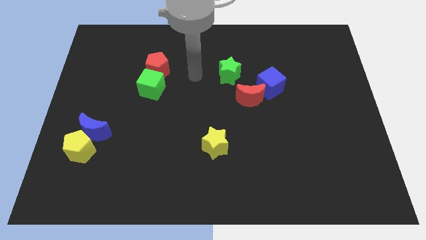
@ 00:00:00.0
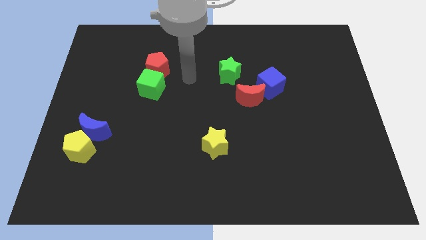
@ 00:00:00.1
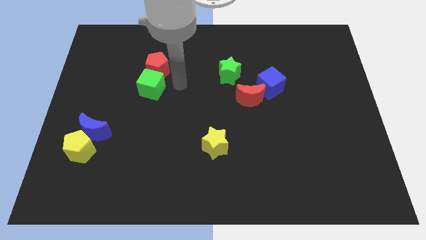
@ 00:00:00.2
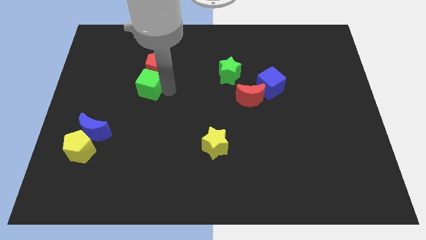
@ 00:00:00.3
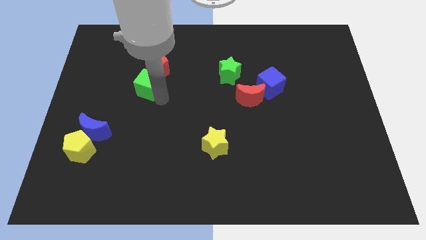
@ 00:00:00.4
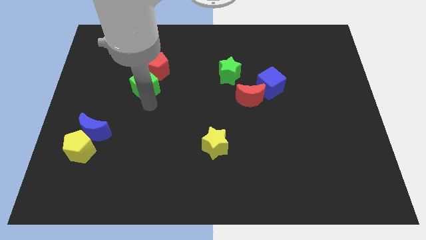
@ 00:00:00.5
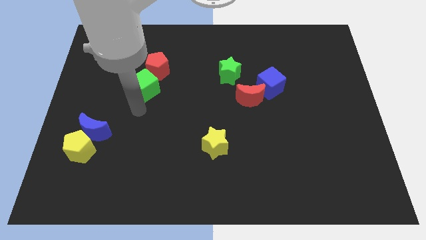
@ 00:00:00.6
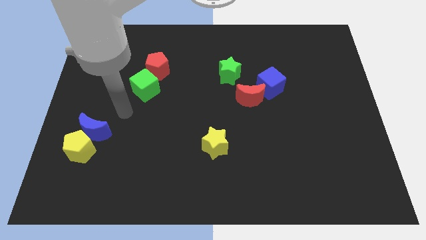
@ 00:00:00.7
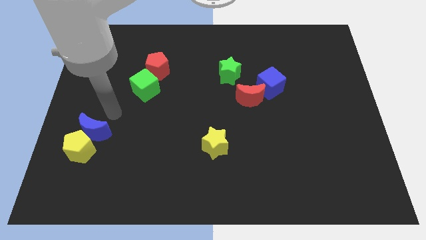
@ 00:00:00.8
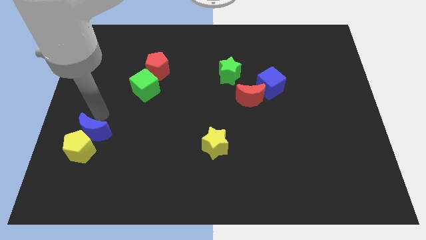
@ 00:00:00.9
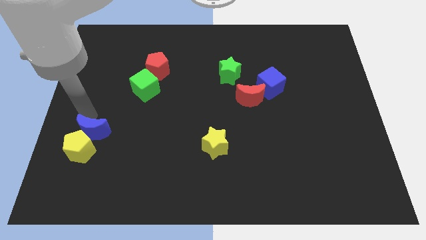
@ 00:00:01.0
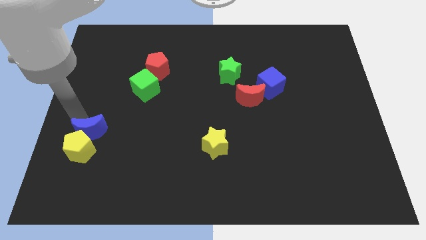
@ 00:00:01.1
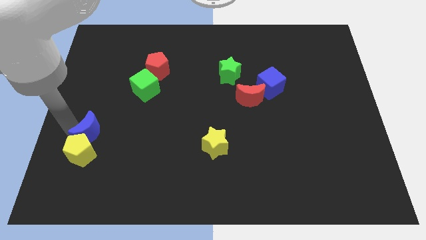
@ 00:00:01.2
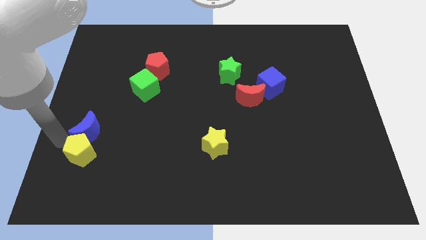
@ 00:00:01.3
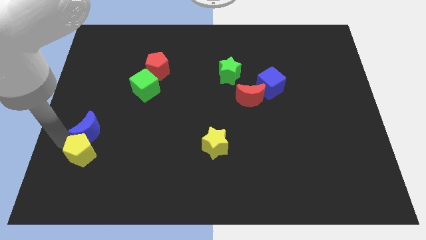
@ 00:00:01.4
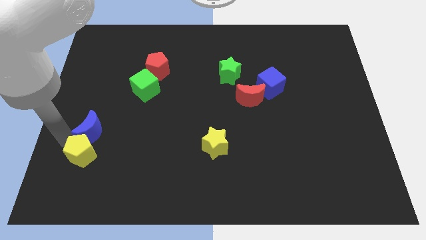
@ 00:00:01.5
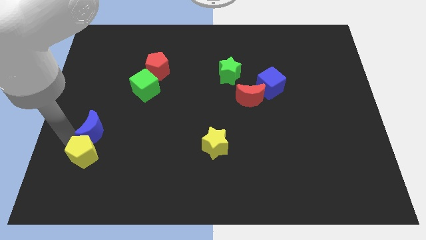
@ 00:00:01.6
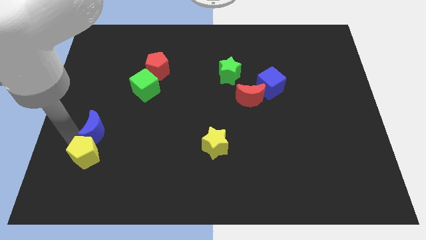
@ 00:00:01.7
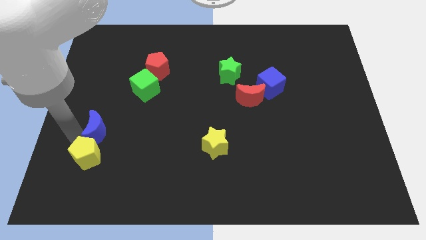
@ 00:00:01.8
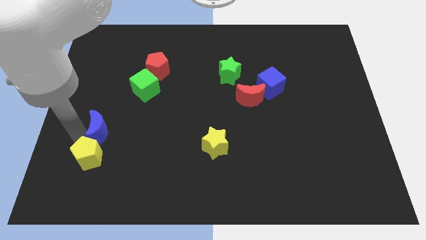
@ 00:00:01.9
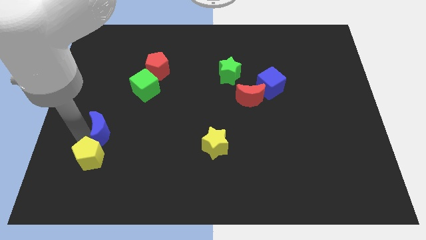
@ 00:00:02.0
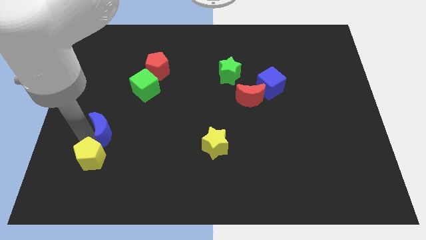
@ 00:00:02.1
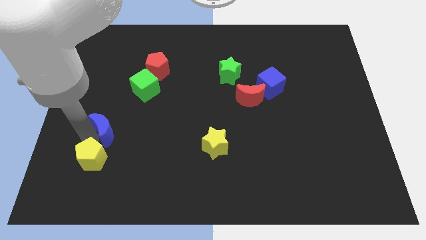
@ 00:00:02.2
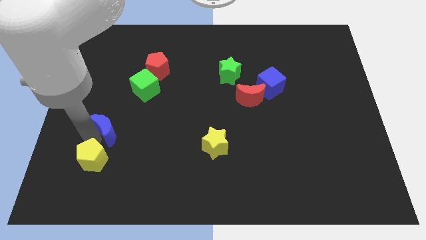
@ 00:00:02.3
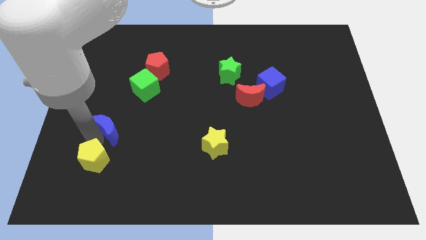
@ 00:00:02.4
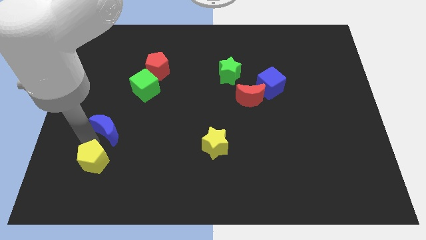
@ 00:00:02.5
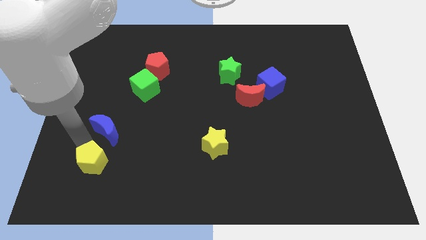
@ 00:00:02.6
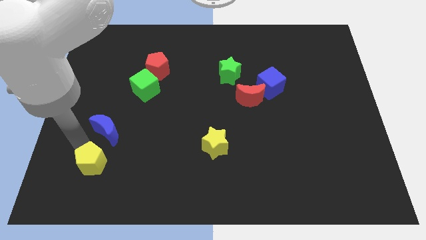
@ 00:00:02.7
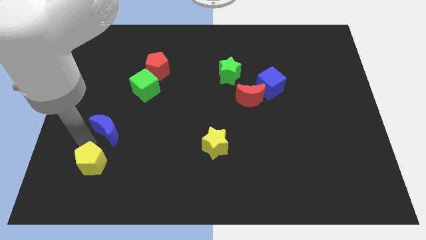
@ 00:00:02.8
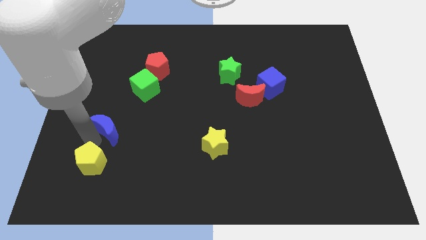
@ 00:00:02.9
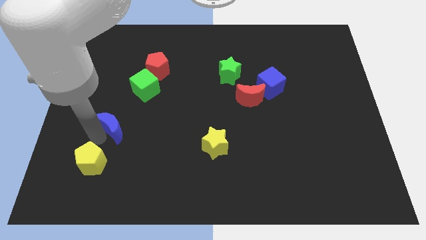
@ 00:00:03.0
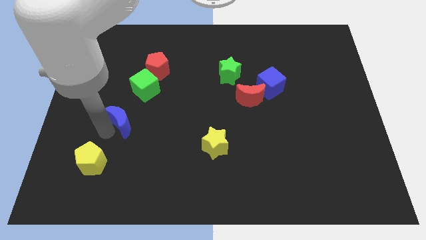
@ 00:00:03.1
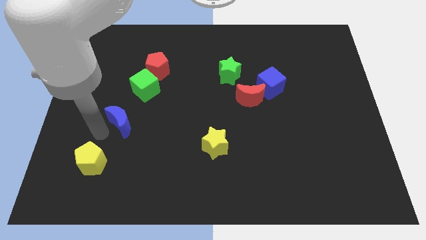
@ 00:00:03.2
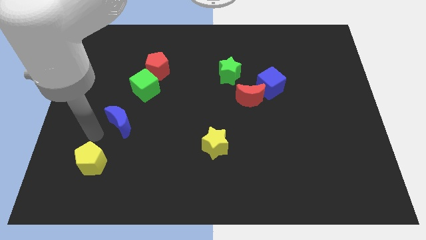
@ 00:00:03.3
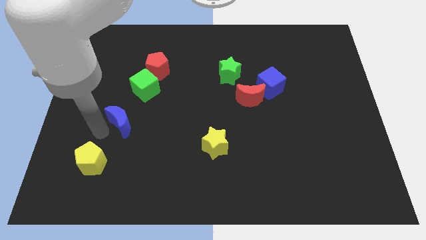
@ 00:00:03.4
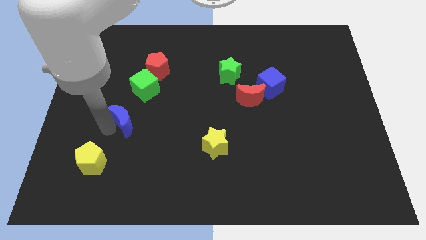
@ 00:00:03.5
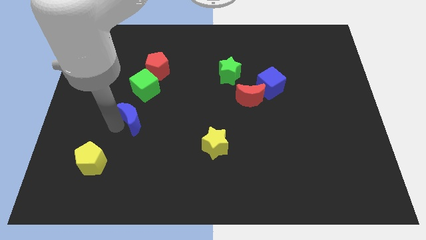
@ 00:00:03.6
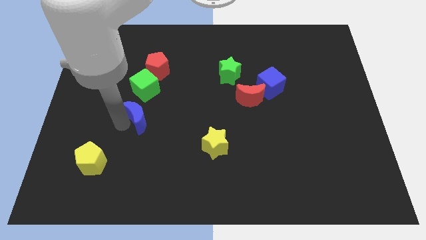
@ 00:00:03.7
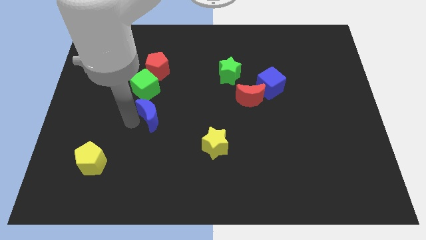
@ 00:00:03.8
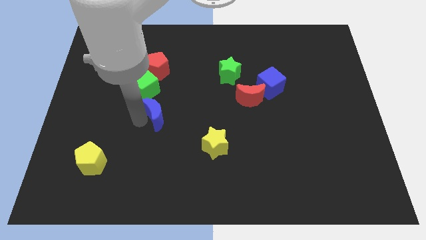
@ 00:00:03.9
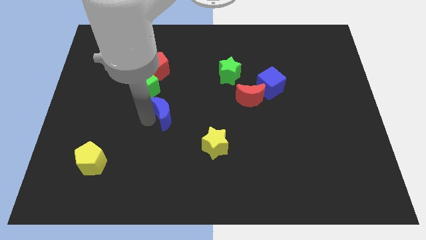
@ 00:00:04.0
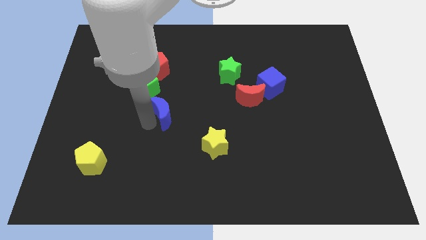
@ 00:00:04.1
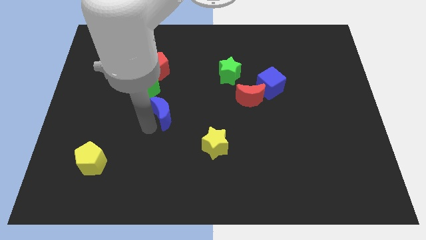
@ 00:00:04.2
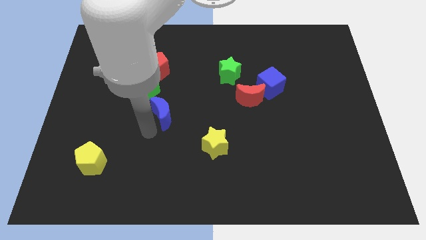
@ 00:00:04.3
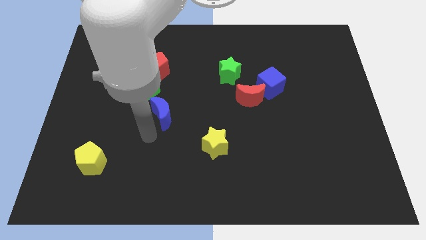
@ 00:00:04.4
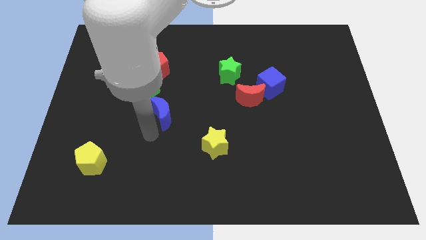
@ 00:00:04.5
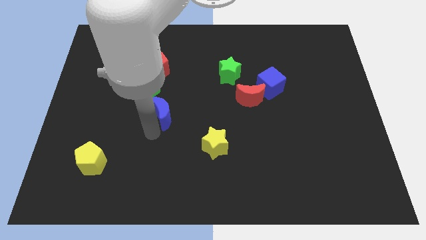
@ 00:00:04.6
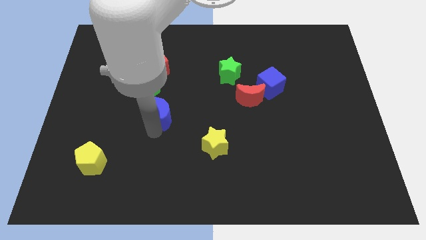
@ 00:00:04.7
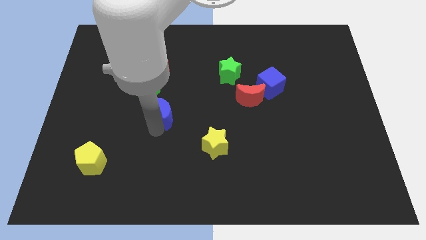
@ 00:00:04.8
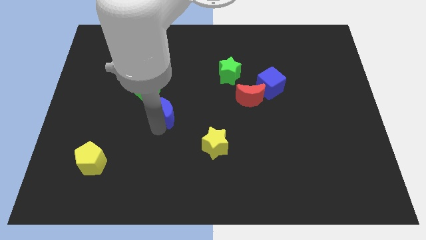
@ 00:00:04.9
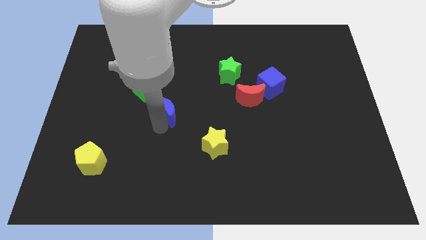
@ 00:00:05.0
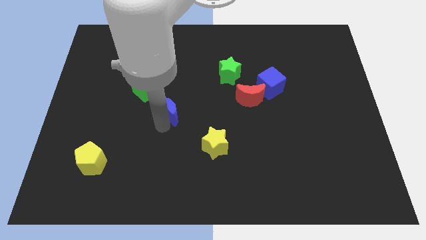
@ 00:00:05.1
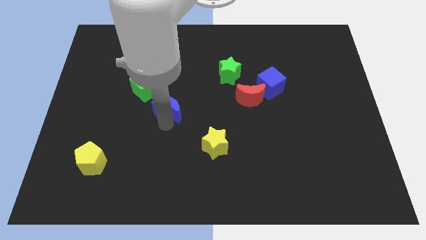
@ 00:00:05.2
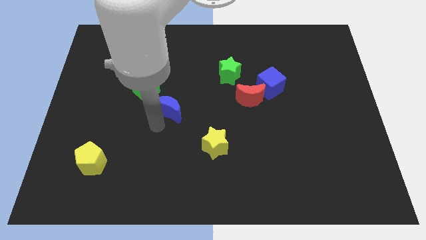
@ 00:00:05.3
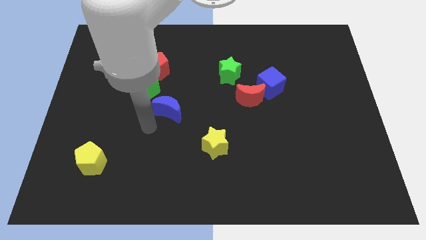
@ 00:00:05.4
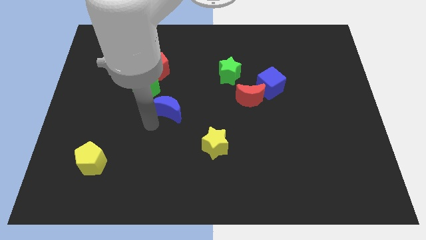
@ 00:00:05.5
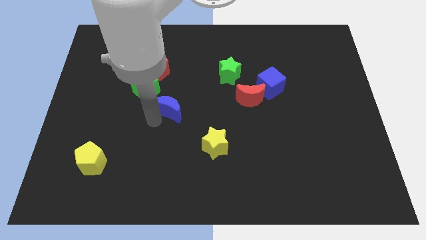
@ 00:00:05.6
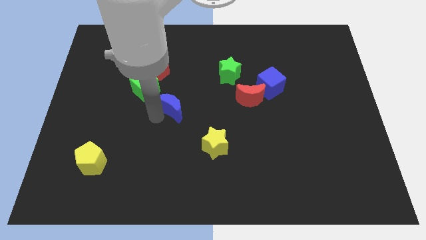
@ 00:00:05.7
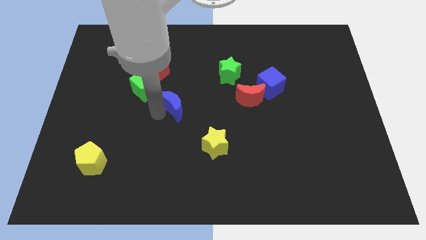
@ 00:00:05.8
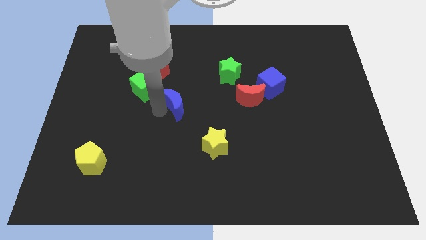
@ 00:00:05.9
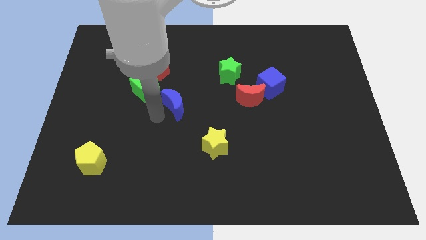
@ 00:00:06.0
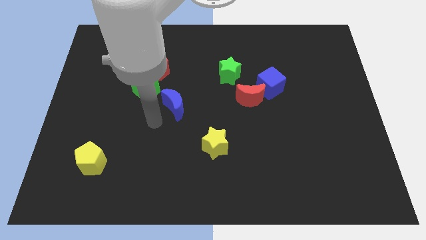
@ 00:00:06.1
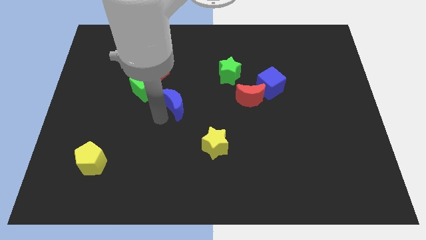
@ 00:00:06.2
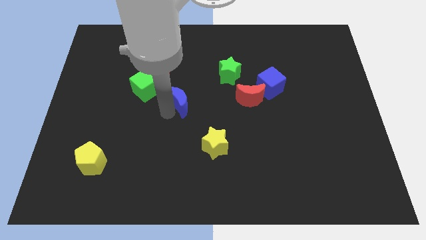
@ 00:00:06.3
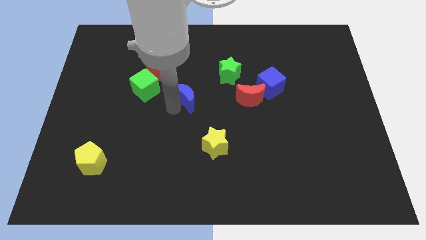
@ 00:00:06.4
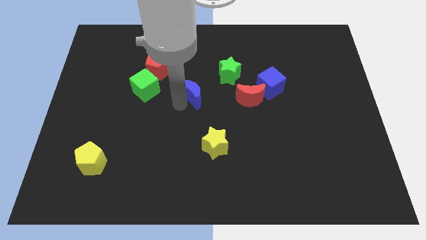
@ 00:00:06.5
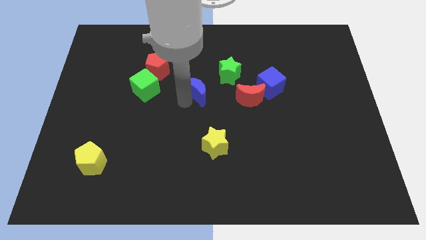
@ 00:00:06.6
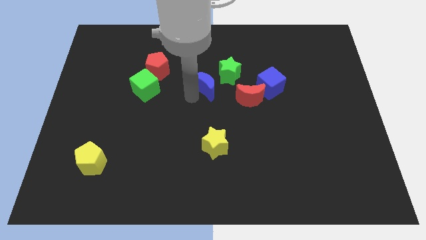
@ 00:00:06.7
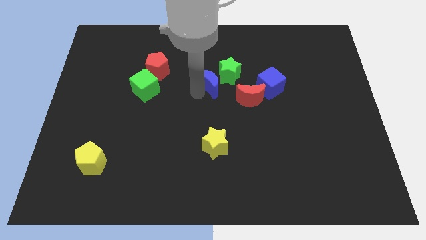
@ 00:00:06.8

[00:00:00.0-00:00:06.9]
move the blue moon close to the green star
